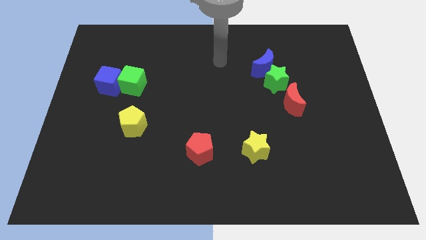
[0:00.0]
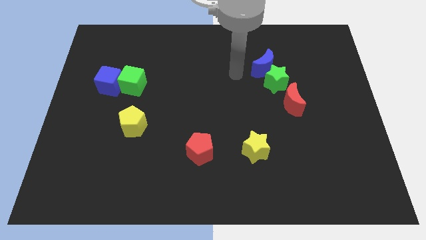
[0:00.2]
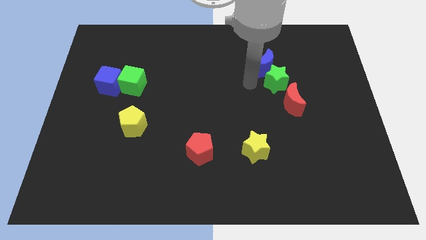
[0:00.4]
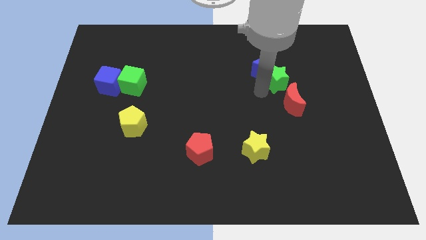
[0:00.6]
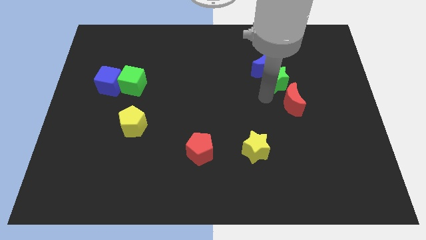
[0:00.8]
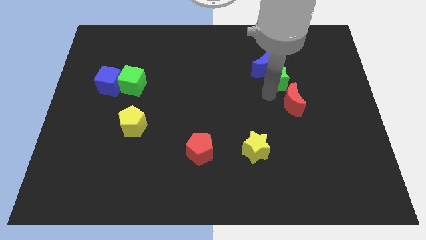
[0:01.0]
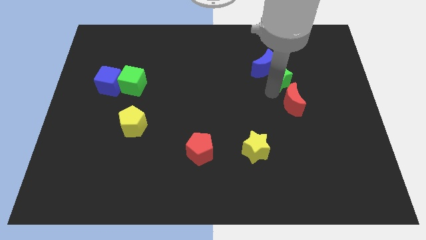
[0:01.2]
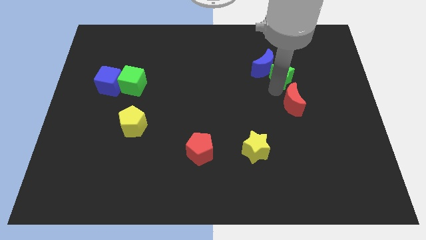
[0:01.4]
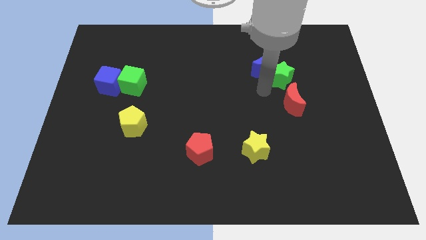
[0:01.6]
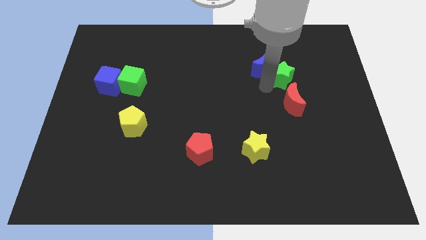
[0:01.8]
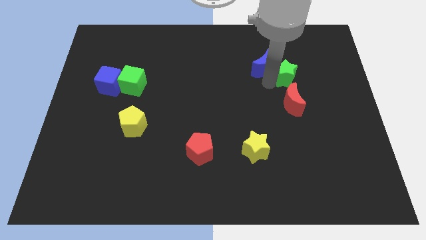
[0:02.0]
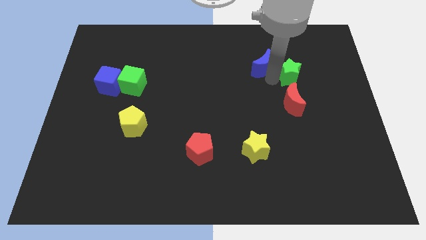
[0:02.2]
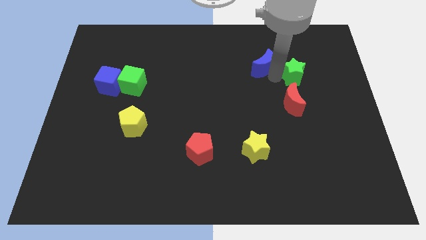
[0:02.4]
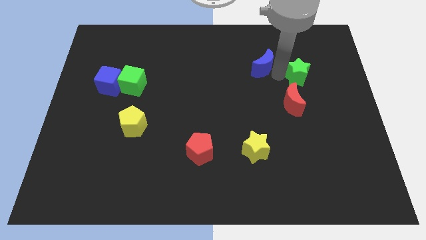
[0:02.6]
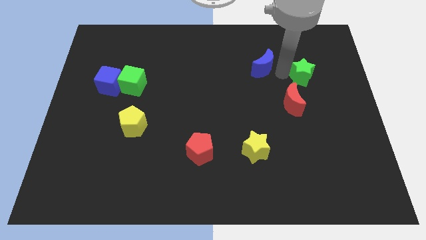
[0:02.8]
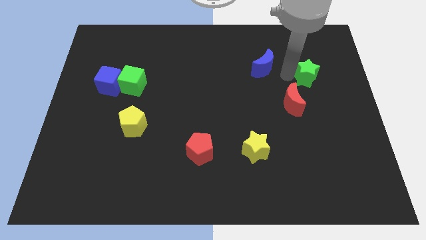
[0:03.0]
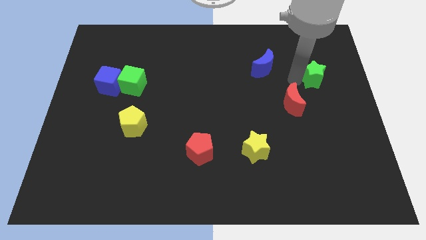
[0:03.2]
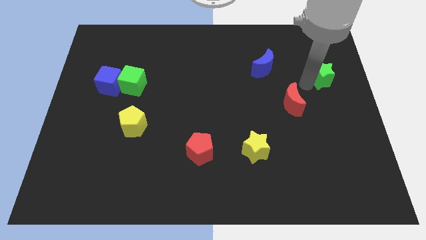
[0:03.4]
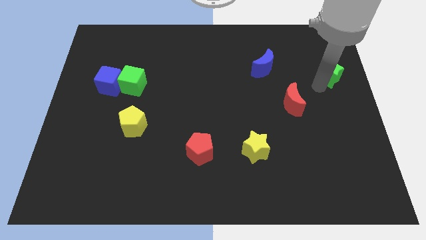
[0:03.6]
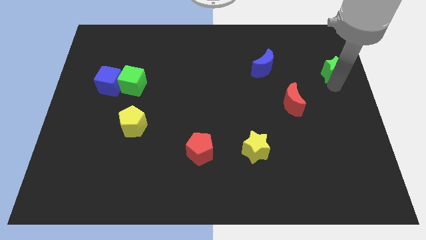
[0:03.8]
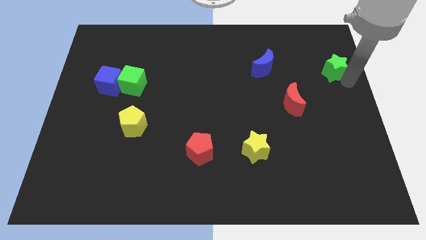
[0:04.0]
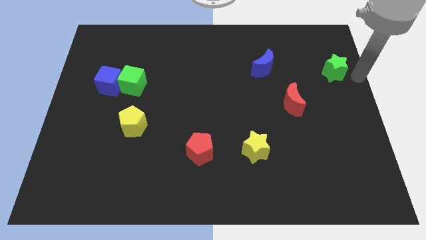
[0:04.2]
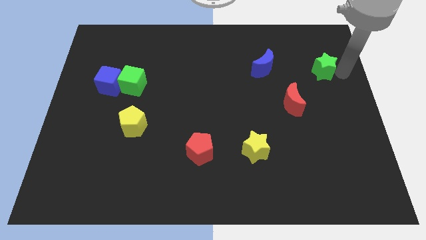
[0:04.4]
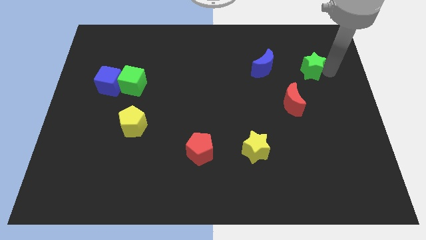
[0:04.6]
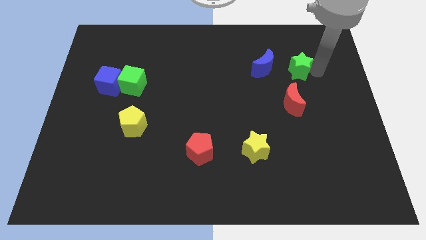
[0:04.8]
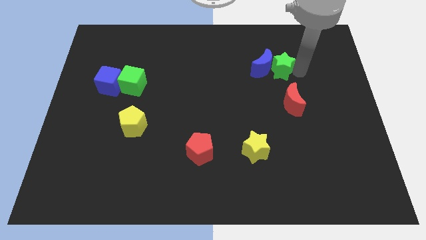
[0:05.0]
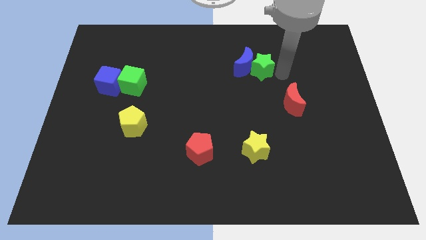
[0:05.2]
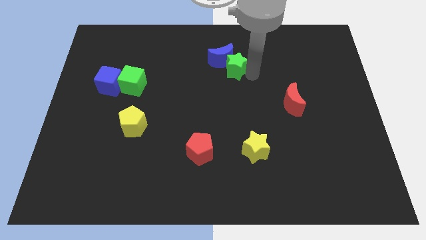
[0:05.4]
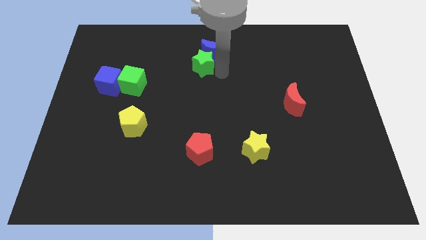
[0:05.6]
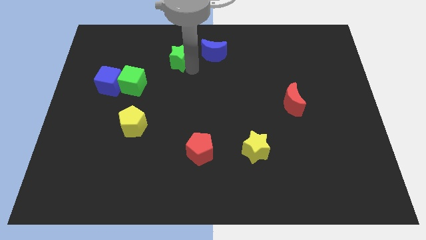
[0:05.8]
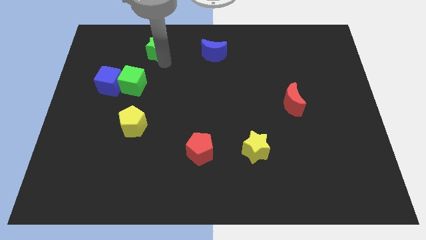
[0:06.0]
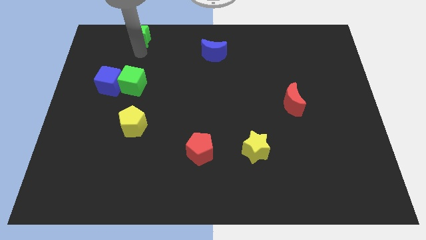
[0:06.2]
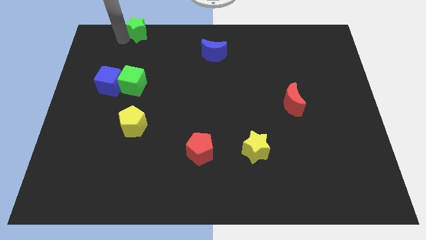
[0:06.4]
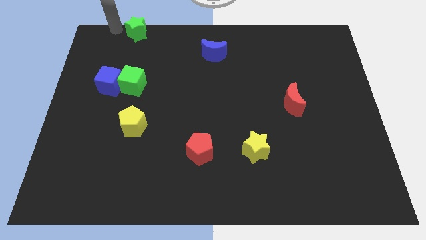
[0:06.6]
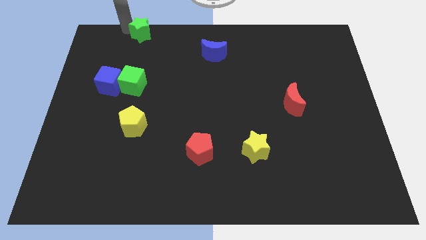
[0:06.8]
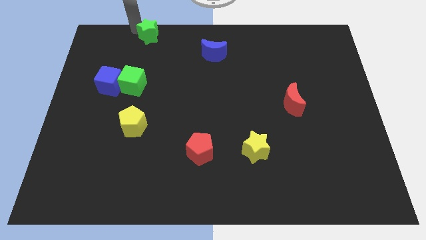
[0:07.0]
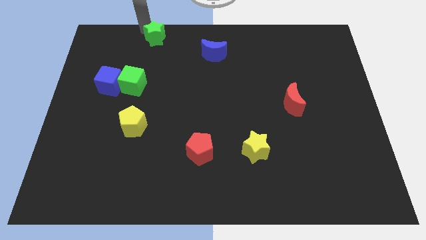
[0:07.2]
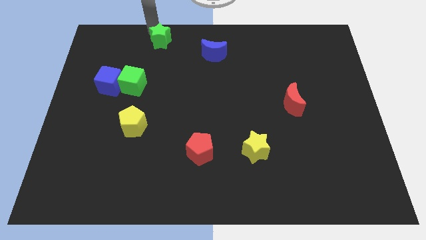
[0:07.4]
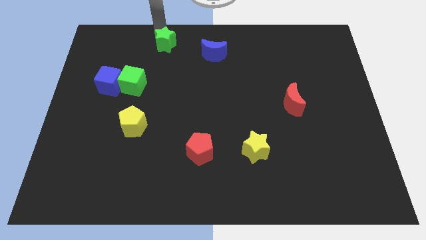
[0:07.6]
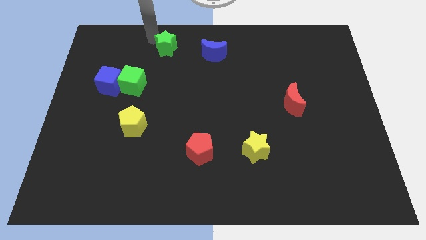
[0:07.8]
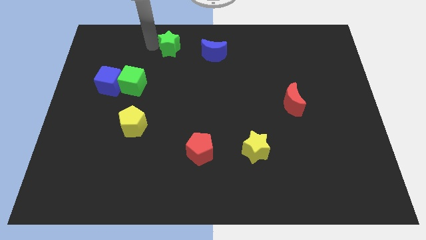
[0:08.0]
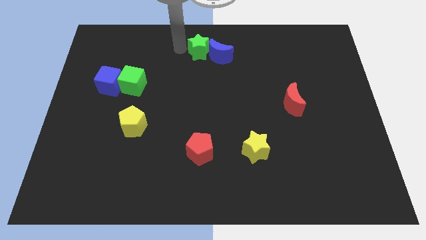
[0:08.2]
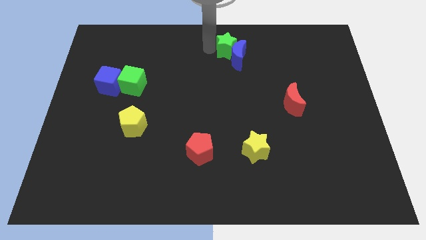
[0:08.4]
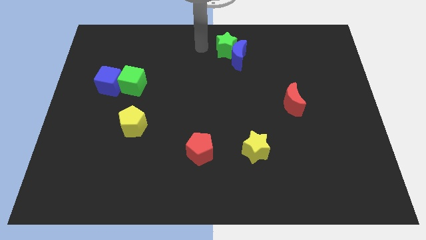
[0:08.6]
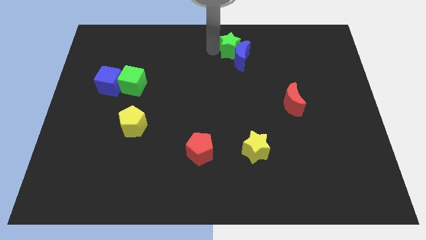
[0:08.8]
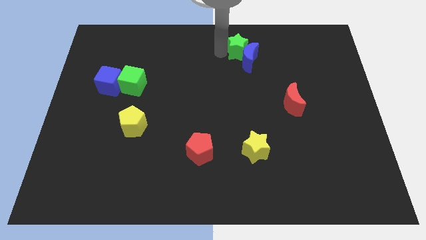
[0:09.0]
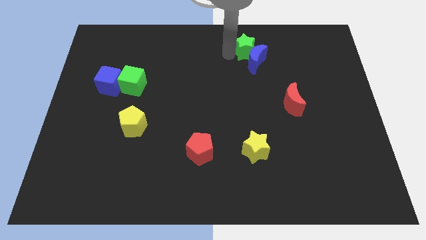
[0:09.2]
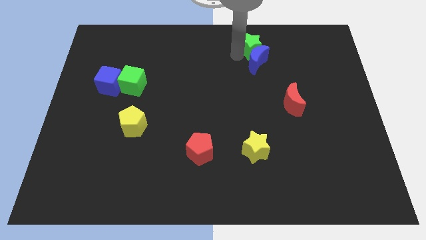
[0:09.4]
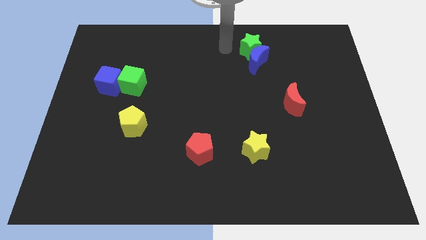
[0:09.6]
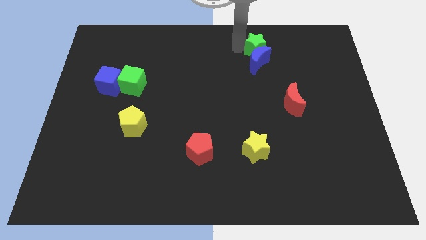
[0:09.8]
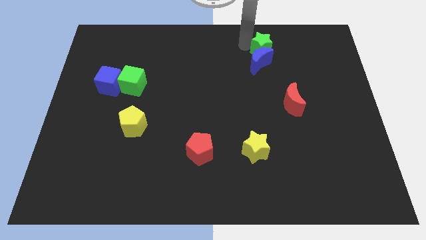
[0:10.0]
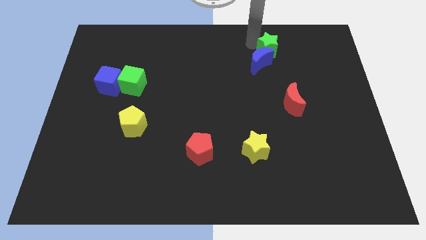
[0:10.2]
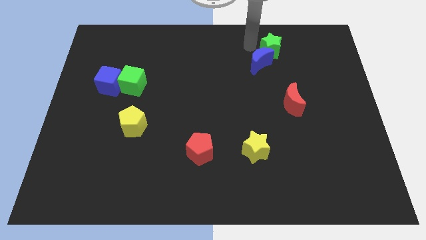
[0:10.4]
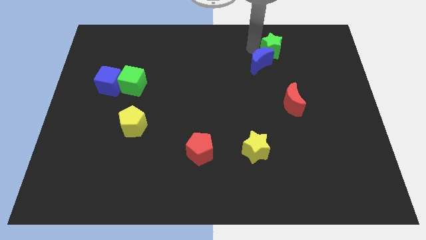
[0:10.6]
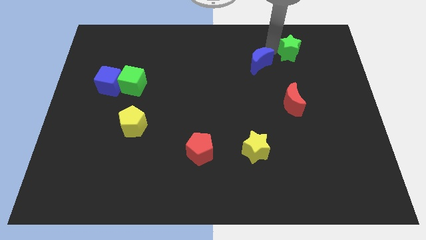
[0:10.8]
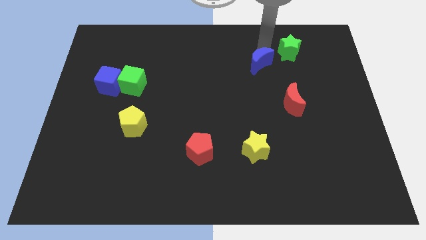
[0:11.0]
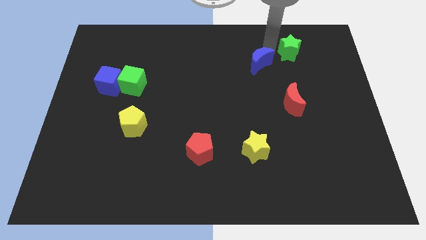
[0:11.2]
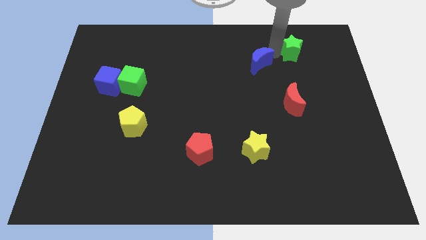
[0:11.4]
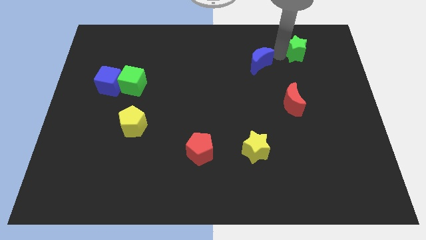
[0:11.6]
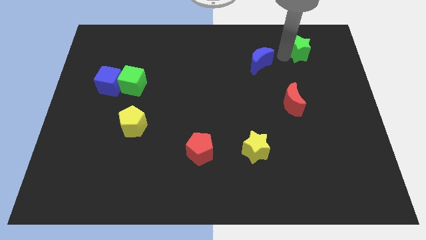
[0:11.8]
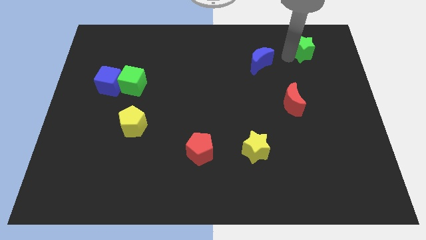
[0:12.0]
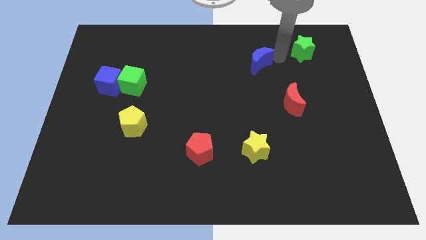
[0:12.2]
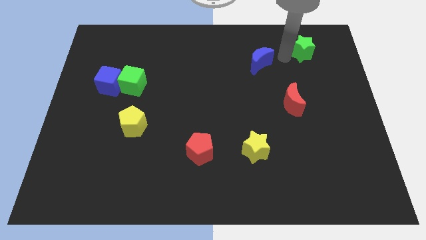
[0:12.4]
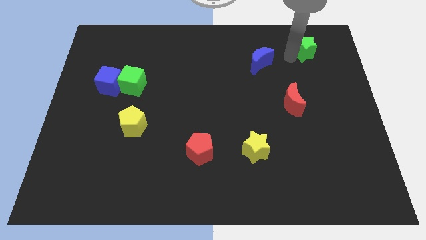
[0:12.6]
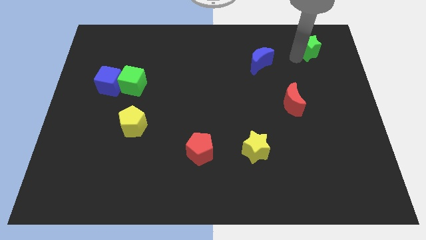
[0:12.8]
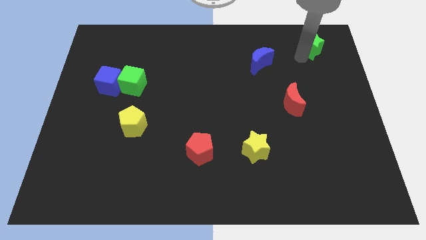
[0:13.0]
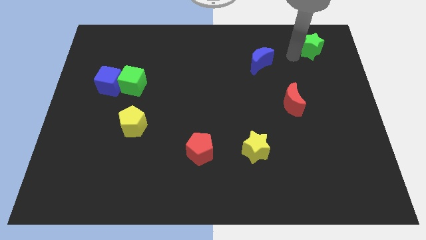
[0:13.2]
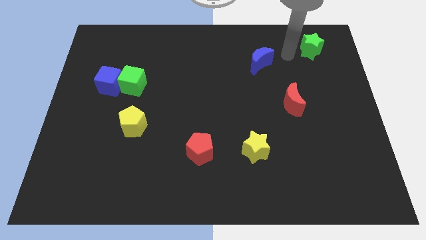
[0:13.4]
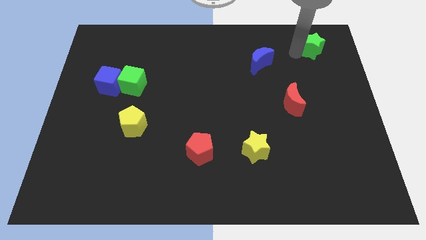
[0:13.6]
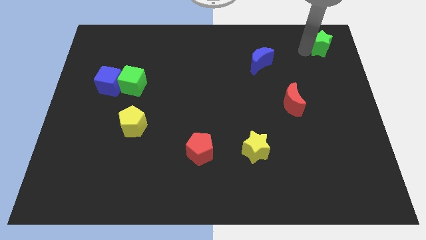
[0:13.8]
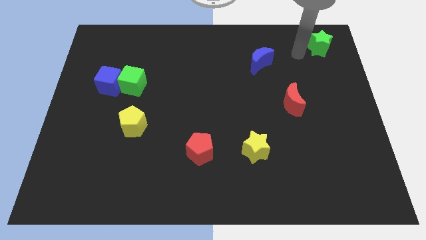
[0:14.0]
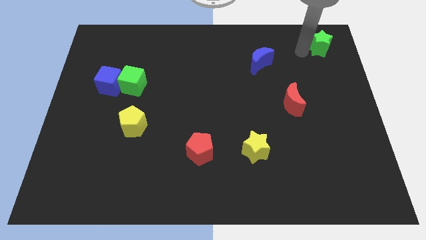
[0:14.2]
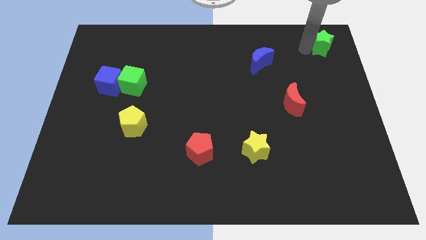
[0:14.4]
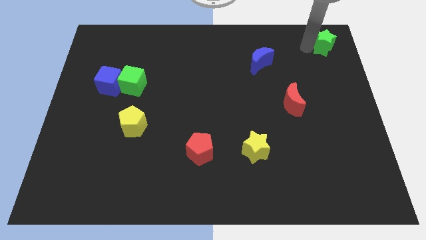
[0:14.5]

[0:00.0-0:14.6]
put the green star to the top right of the board
